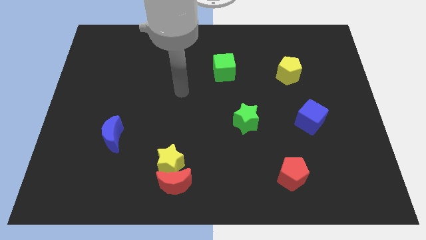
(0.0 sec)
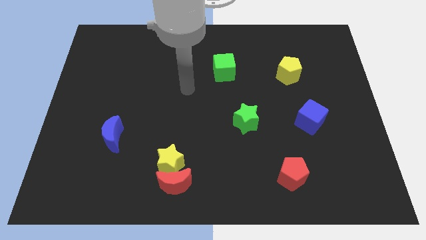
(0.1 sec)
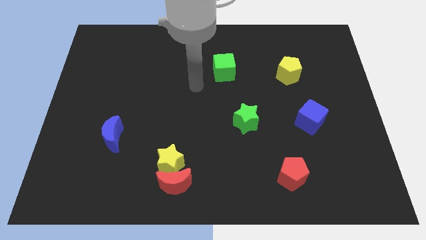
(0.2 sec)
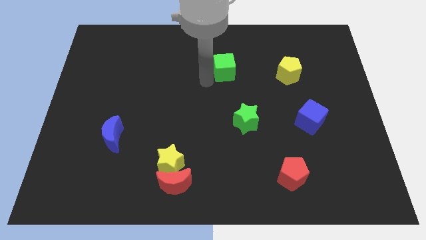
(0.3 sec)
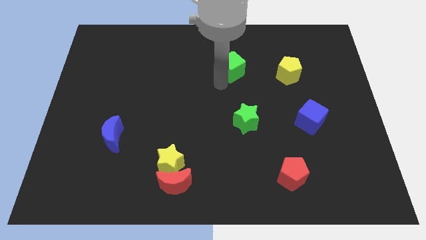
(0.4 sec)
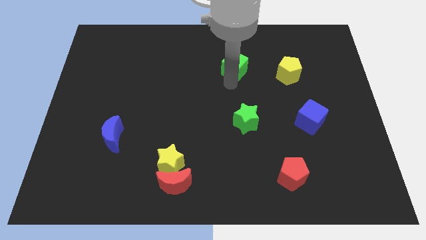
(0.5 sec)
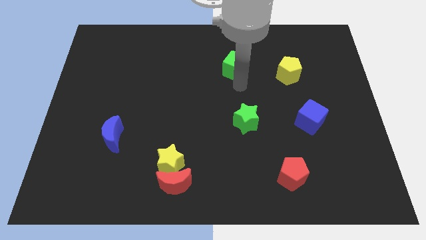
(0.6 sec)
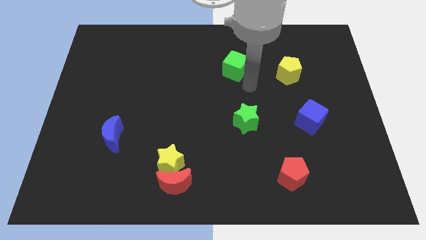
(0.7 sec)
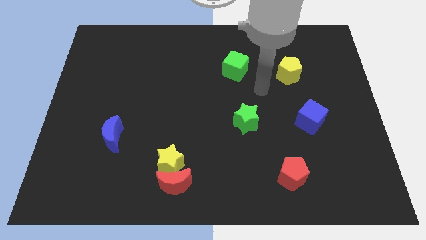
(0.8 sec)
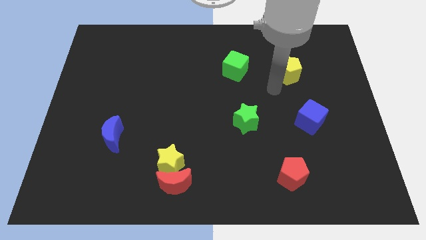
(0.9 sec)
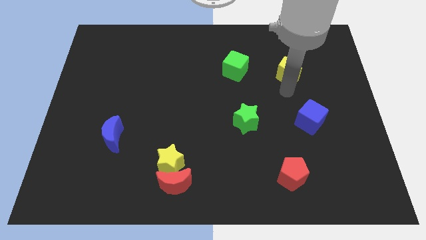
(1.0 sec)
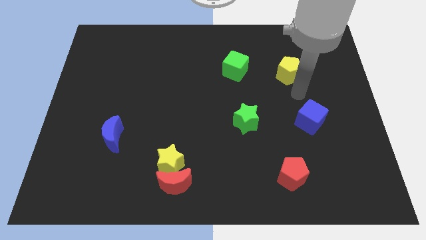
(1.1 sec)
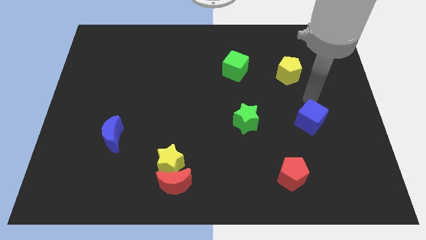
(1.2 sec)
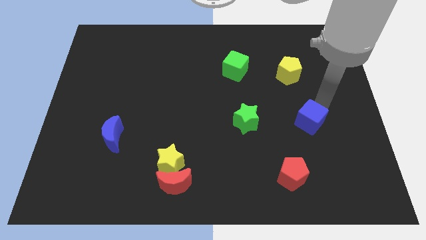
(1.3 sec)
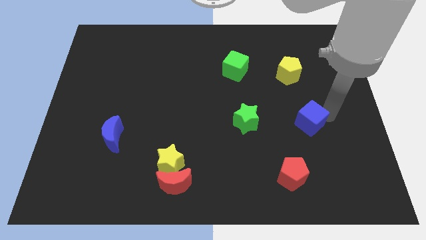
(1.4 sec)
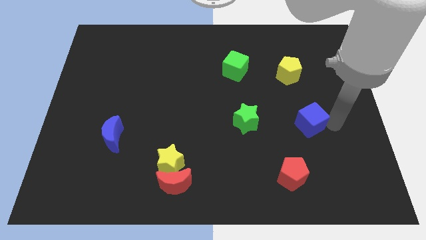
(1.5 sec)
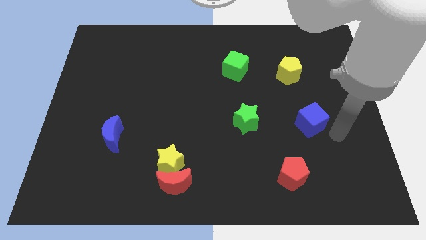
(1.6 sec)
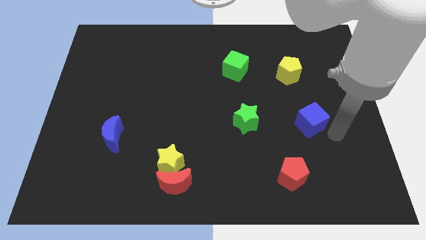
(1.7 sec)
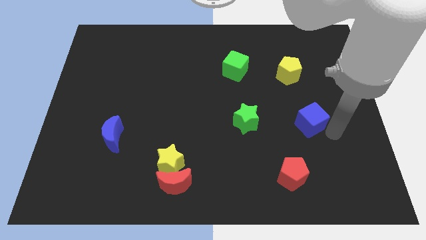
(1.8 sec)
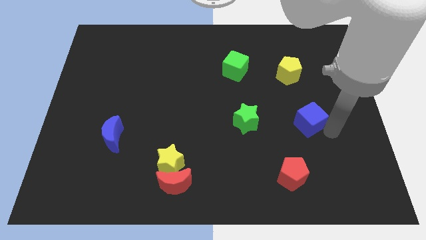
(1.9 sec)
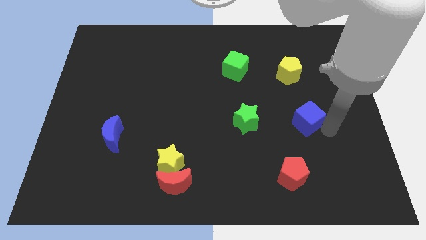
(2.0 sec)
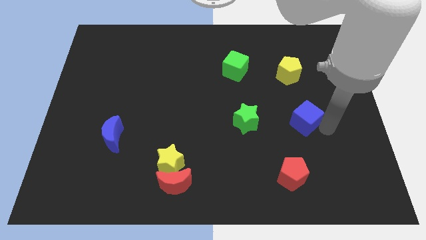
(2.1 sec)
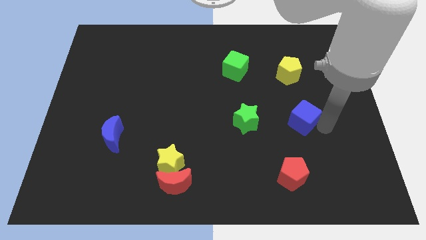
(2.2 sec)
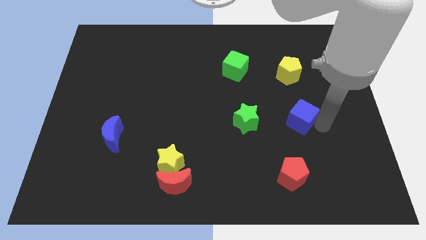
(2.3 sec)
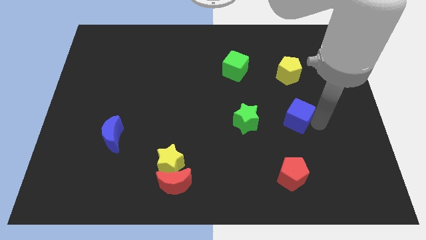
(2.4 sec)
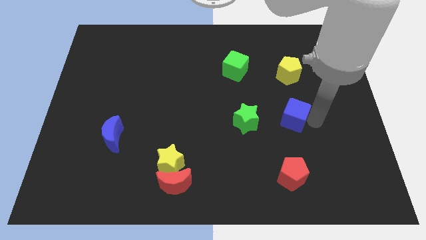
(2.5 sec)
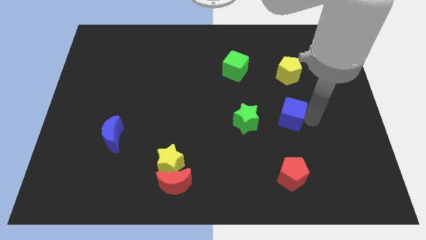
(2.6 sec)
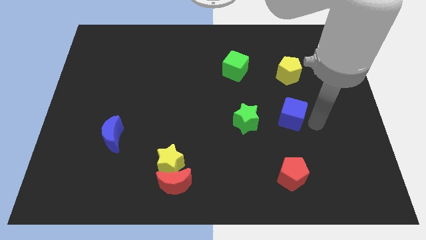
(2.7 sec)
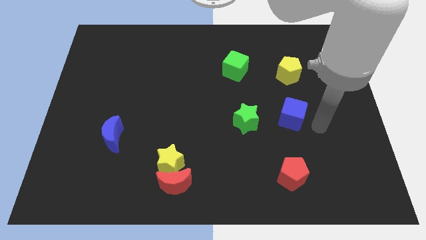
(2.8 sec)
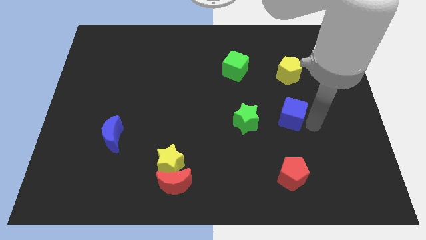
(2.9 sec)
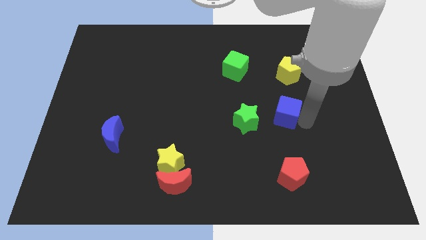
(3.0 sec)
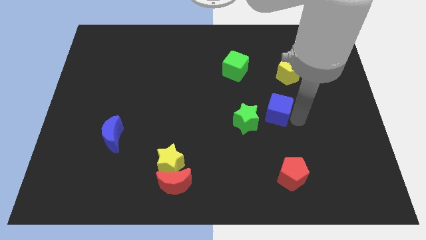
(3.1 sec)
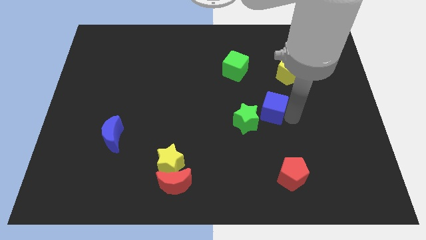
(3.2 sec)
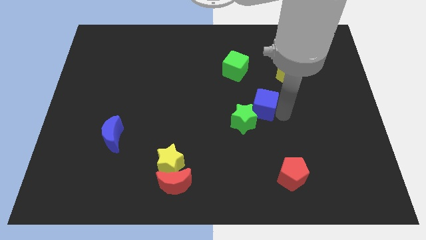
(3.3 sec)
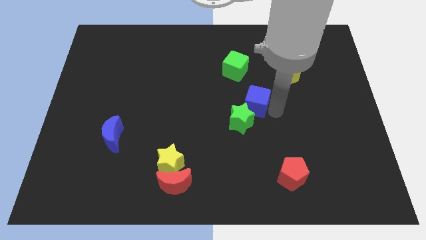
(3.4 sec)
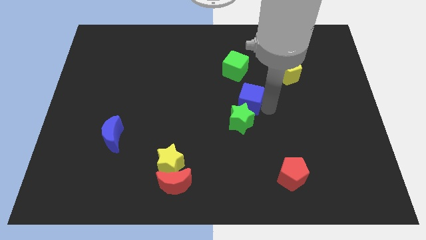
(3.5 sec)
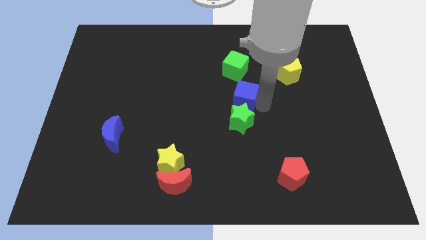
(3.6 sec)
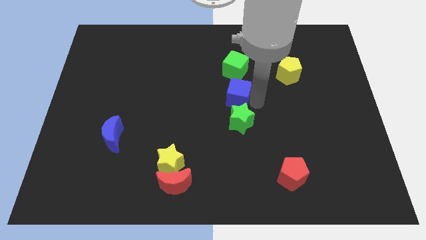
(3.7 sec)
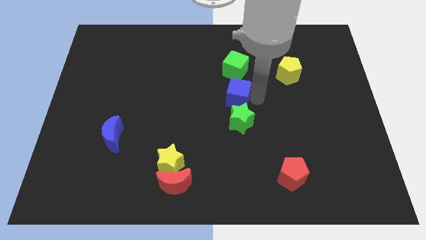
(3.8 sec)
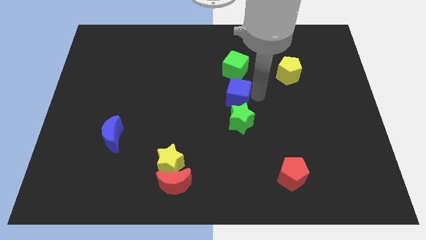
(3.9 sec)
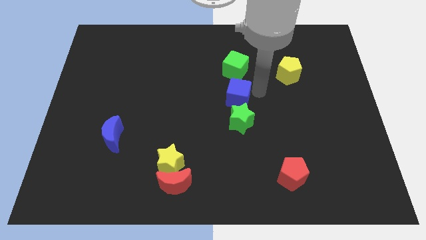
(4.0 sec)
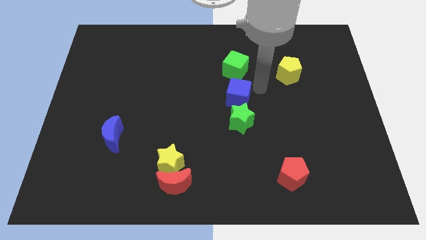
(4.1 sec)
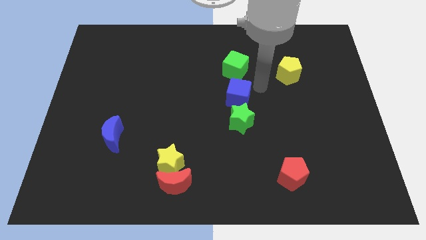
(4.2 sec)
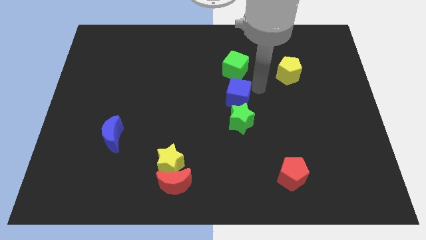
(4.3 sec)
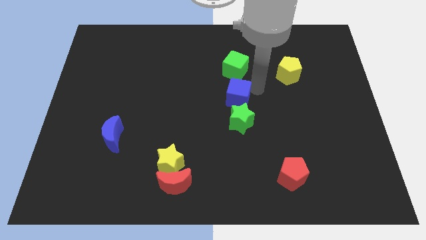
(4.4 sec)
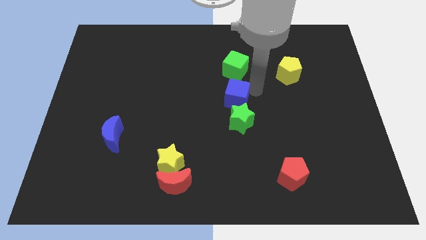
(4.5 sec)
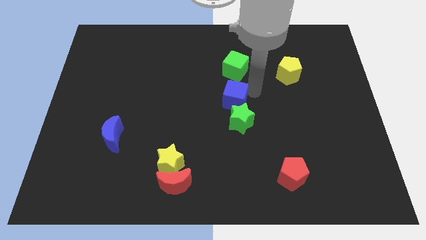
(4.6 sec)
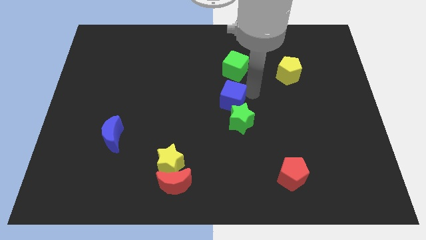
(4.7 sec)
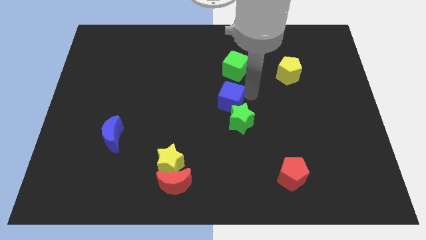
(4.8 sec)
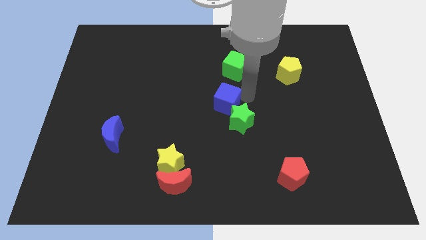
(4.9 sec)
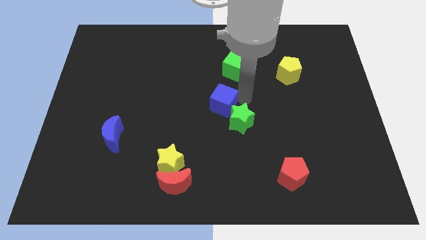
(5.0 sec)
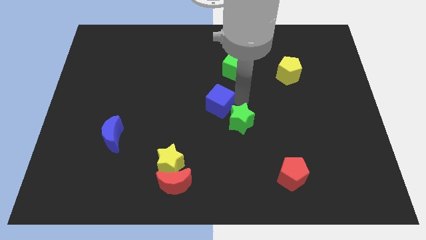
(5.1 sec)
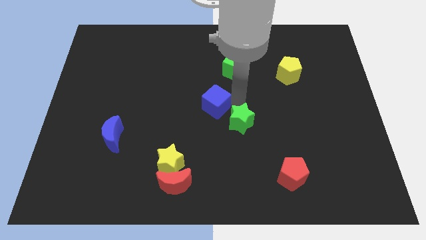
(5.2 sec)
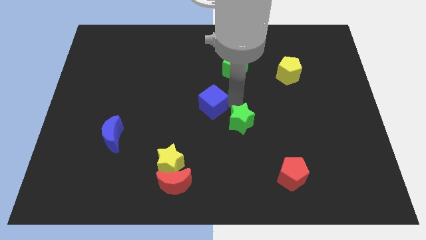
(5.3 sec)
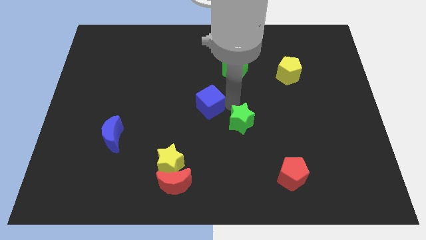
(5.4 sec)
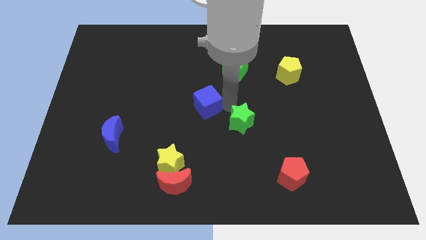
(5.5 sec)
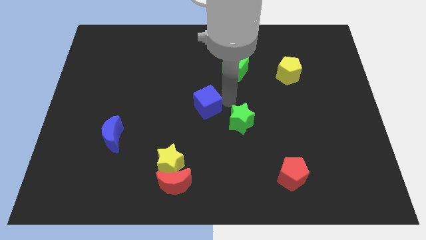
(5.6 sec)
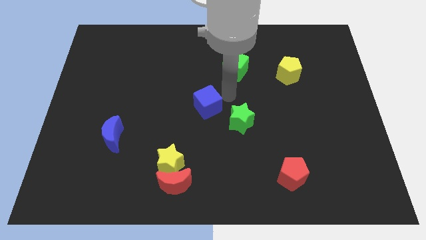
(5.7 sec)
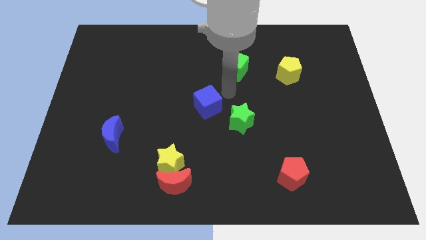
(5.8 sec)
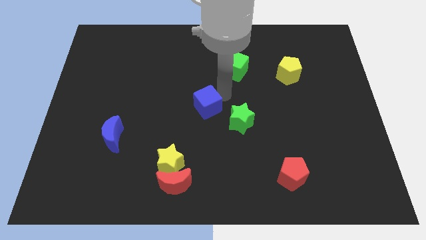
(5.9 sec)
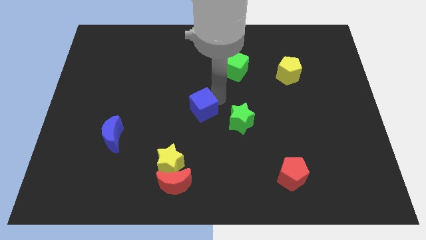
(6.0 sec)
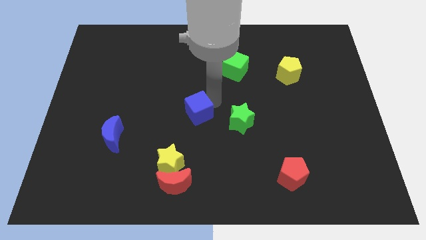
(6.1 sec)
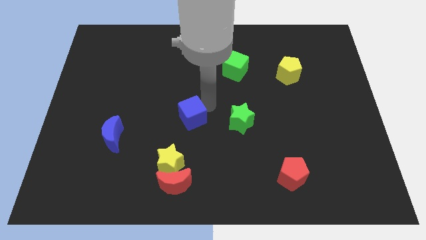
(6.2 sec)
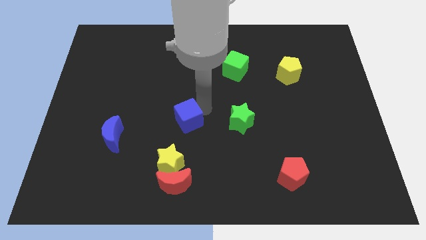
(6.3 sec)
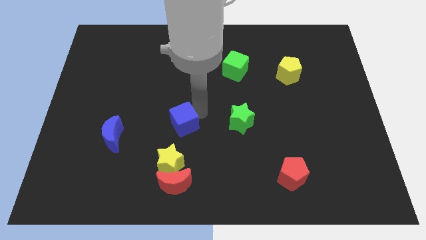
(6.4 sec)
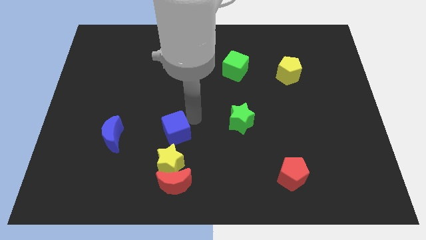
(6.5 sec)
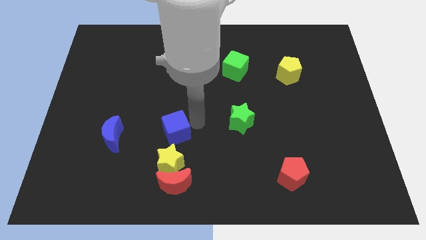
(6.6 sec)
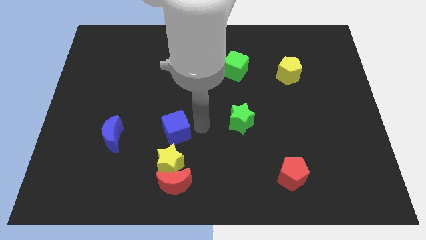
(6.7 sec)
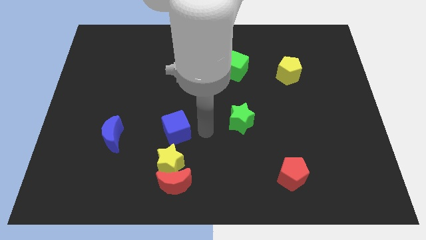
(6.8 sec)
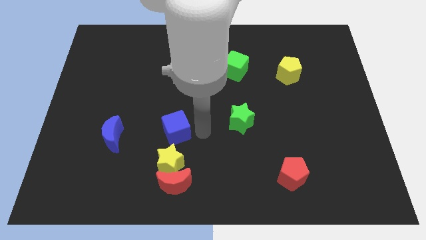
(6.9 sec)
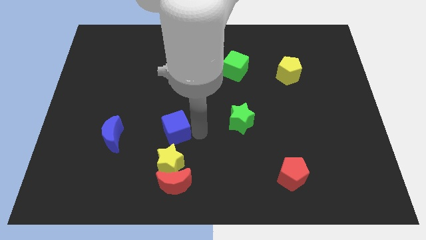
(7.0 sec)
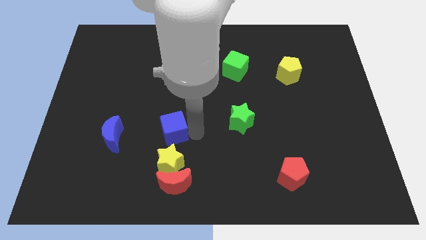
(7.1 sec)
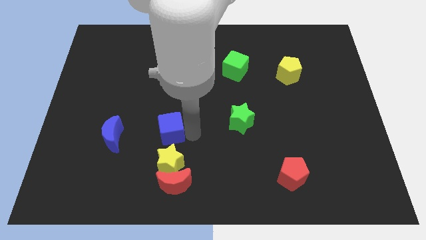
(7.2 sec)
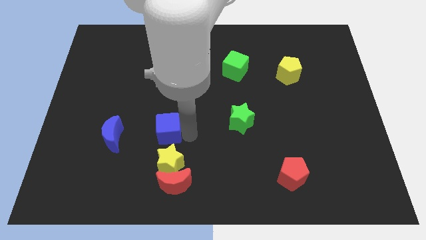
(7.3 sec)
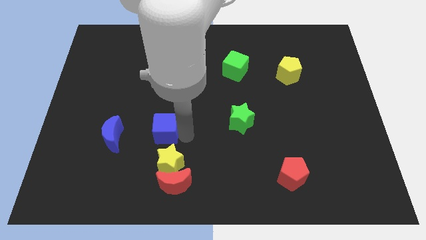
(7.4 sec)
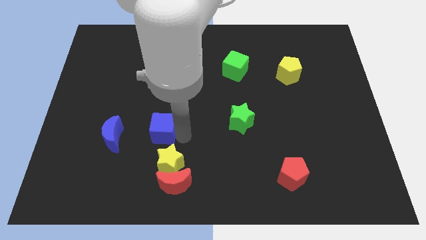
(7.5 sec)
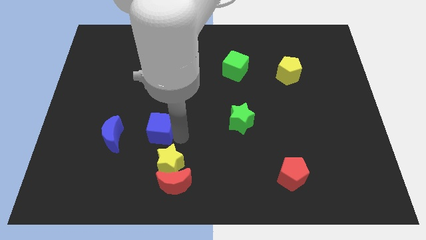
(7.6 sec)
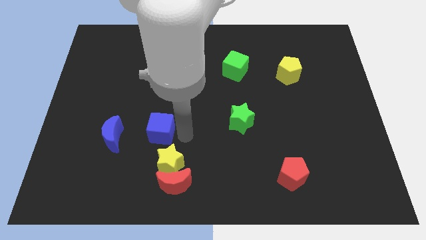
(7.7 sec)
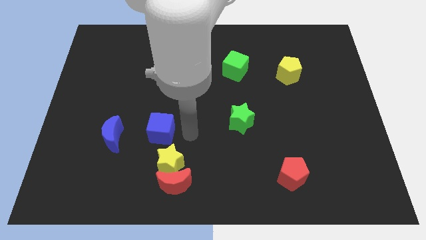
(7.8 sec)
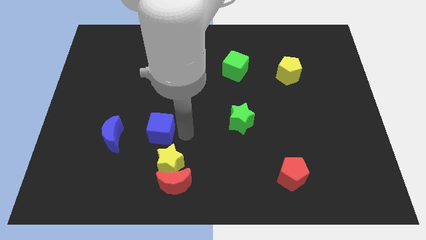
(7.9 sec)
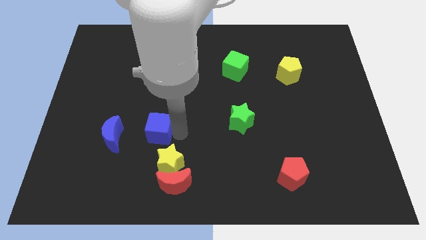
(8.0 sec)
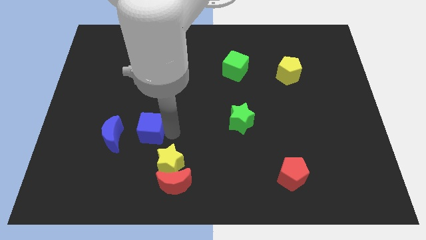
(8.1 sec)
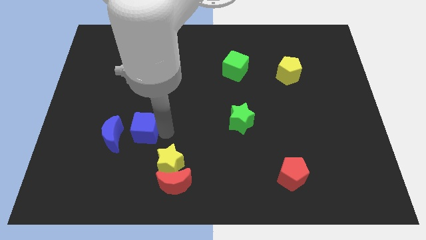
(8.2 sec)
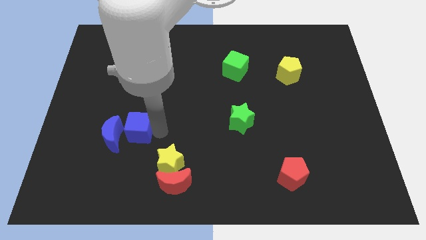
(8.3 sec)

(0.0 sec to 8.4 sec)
put the blue cube next to the blue moon
